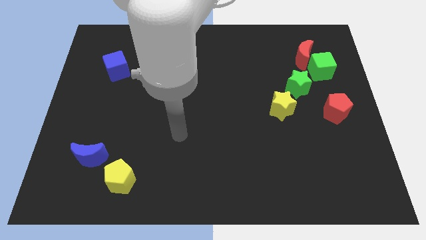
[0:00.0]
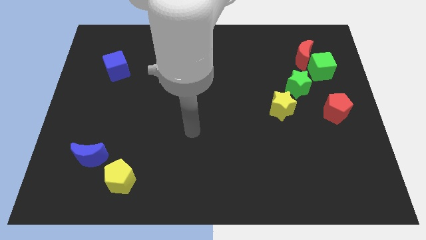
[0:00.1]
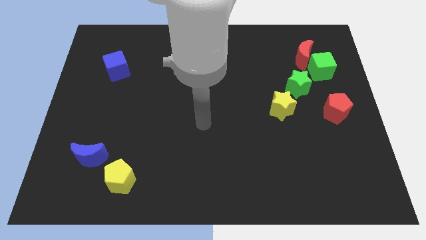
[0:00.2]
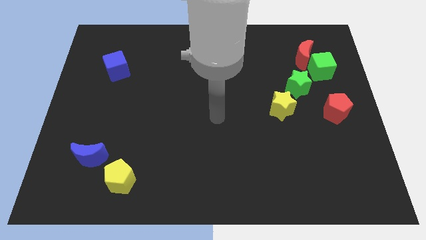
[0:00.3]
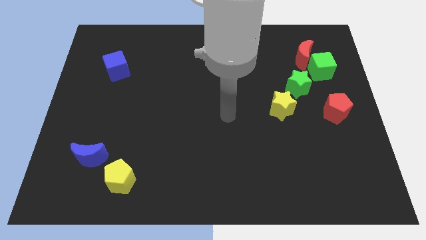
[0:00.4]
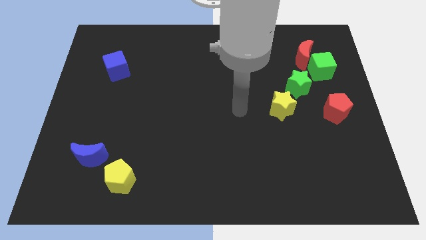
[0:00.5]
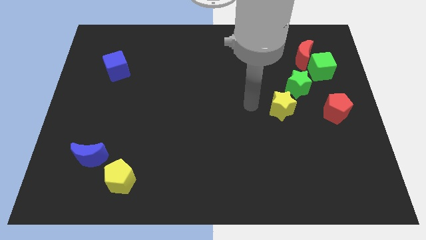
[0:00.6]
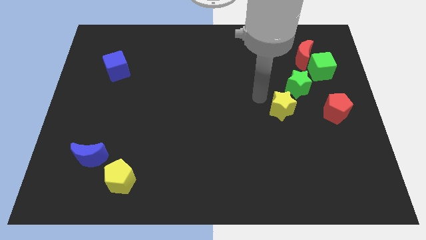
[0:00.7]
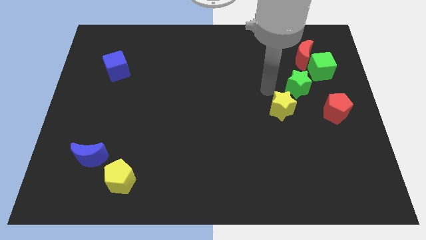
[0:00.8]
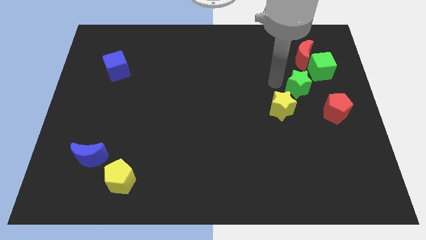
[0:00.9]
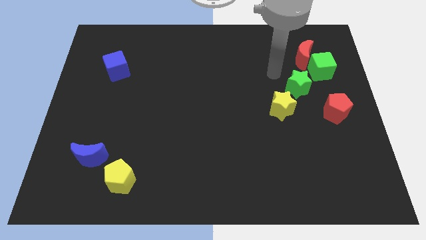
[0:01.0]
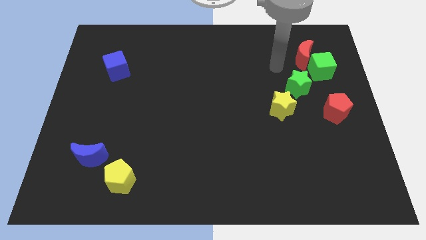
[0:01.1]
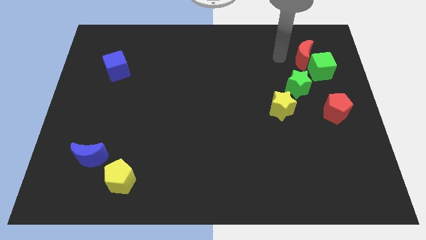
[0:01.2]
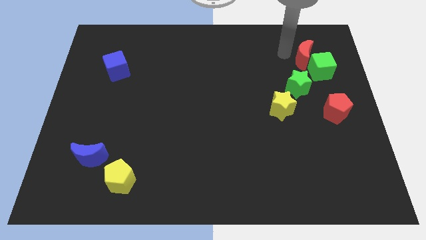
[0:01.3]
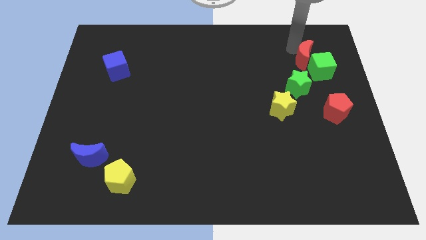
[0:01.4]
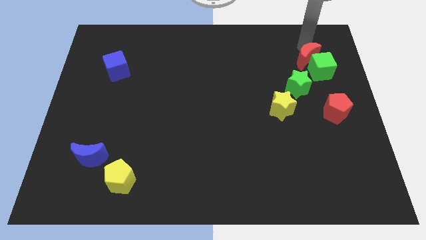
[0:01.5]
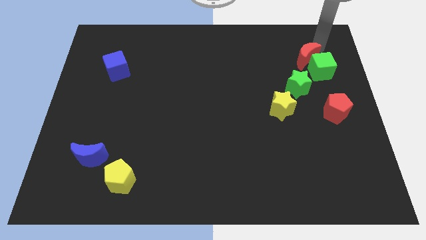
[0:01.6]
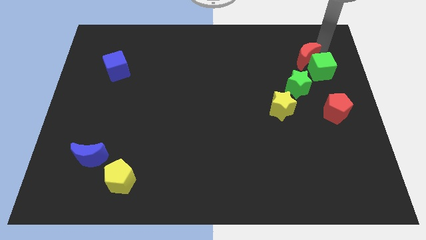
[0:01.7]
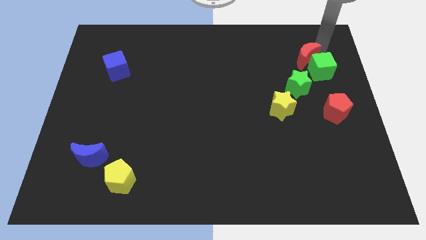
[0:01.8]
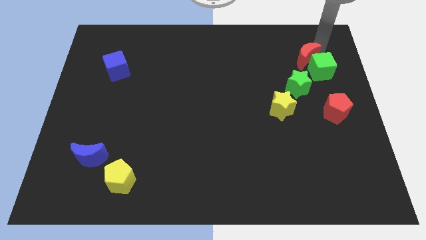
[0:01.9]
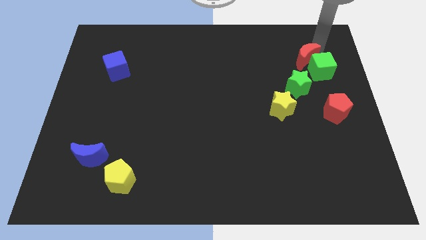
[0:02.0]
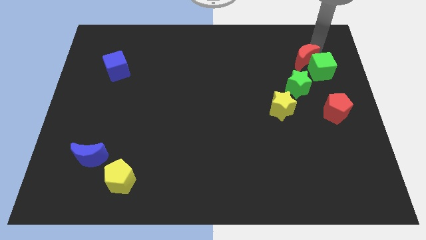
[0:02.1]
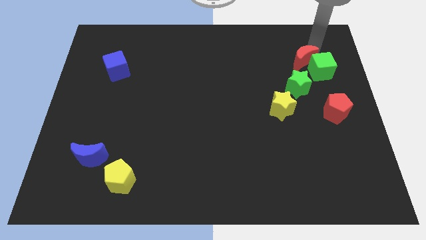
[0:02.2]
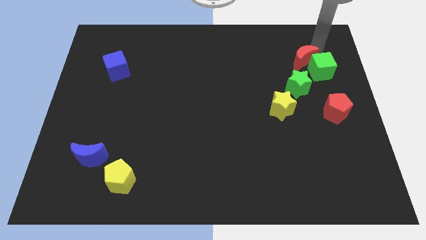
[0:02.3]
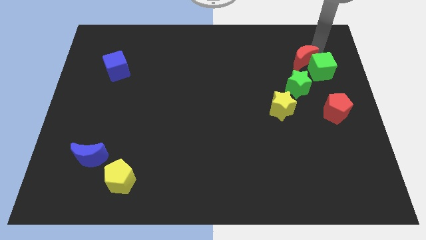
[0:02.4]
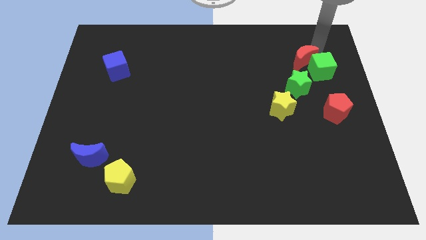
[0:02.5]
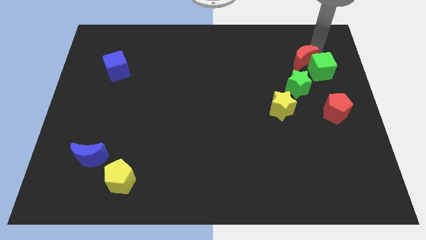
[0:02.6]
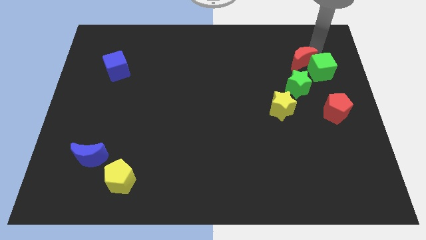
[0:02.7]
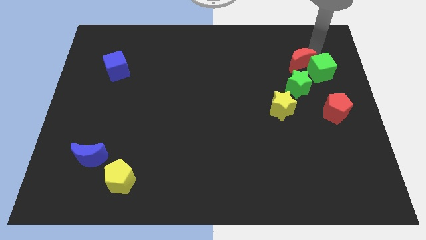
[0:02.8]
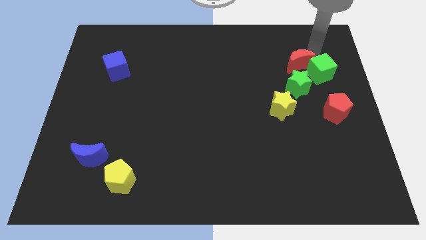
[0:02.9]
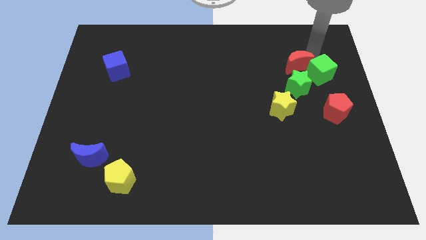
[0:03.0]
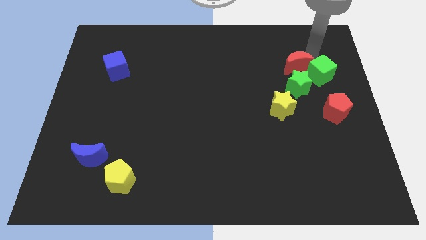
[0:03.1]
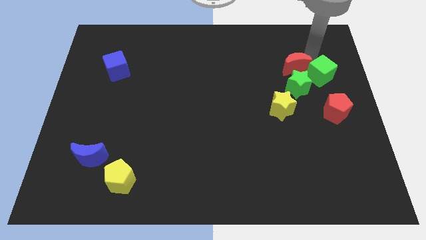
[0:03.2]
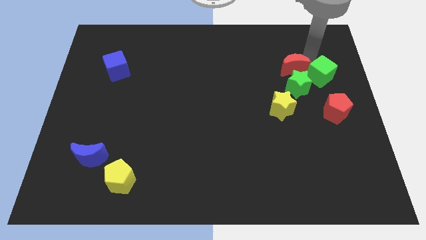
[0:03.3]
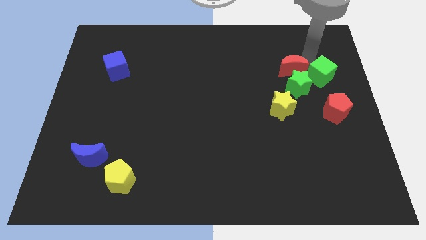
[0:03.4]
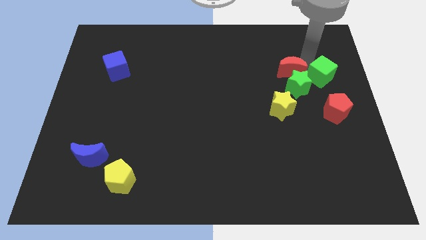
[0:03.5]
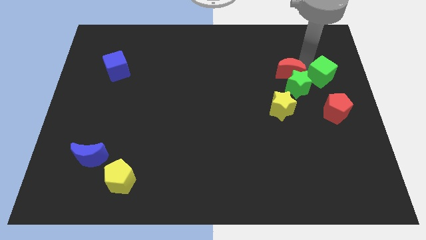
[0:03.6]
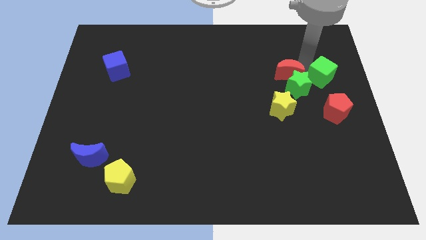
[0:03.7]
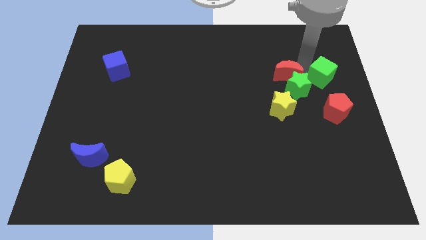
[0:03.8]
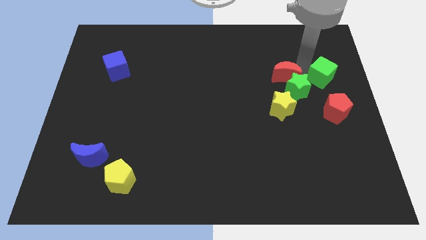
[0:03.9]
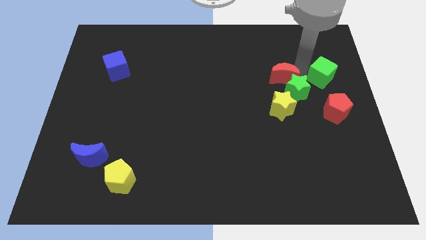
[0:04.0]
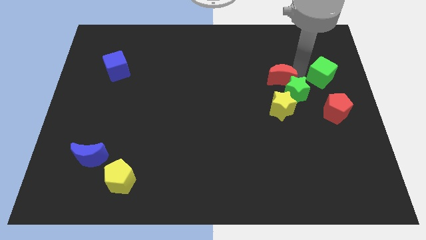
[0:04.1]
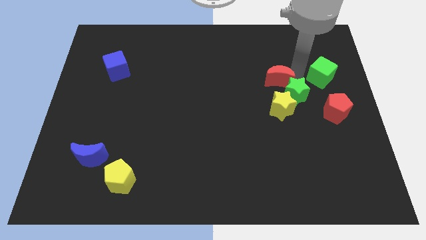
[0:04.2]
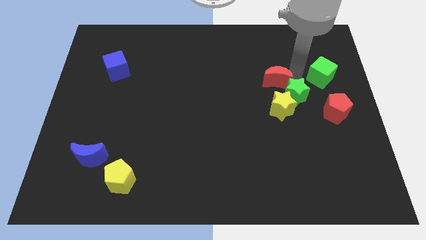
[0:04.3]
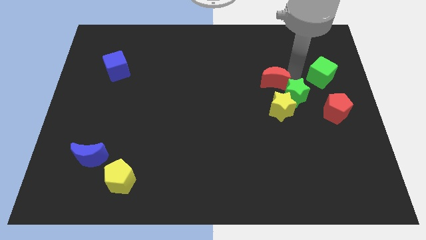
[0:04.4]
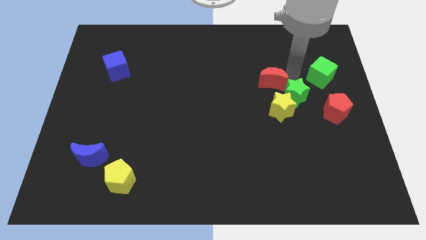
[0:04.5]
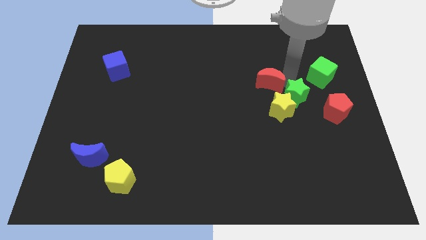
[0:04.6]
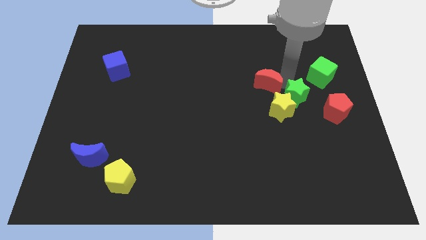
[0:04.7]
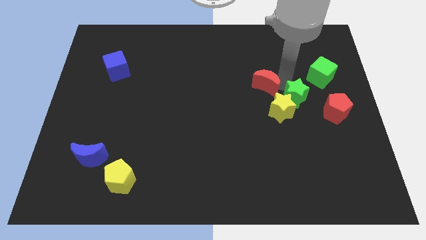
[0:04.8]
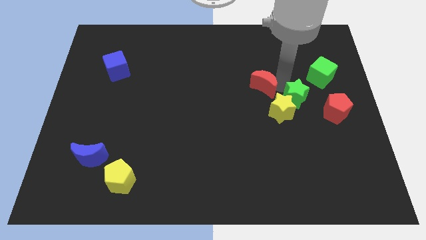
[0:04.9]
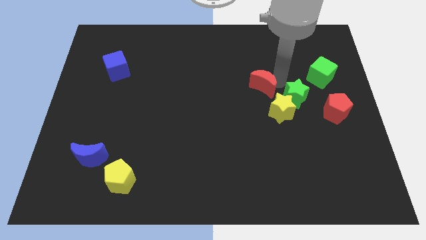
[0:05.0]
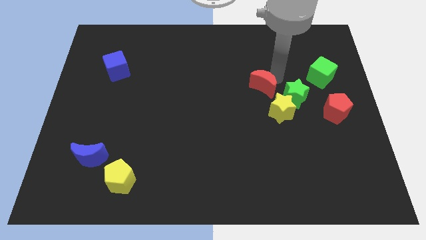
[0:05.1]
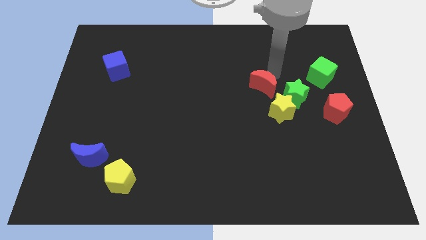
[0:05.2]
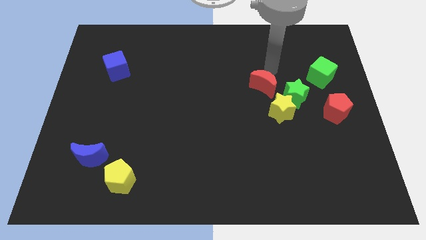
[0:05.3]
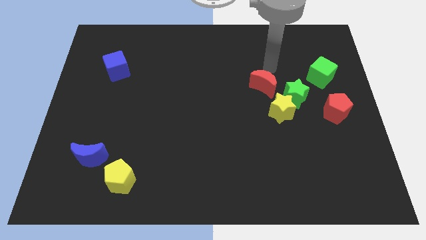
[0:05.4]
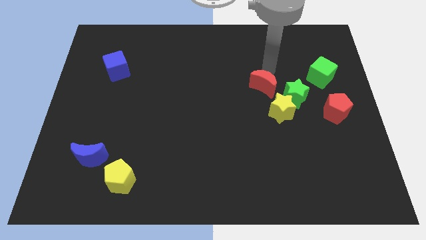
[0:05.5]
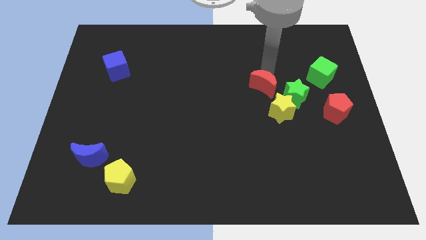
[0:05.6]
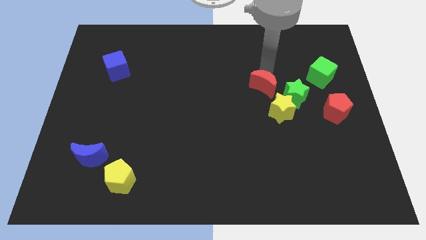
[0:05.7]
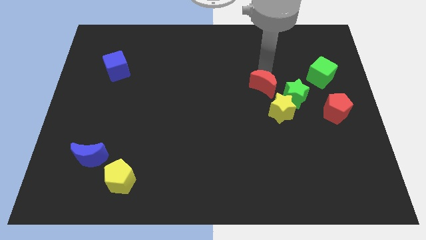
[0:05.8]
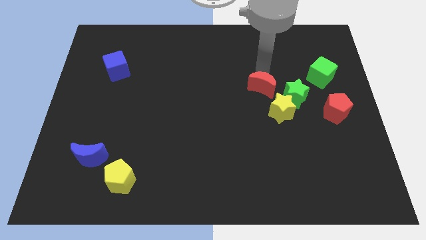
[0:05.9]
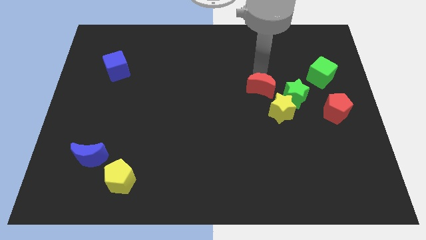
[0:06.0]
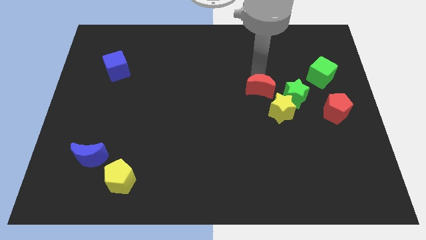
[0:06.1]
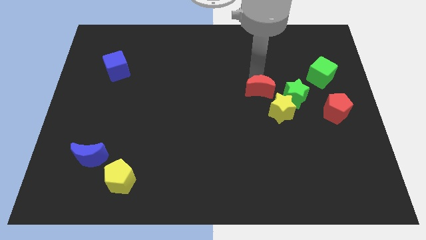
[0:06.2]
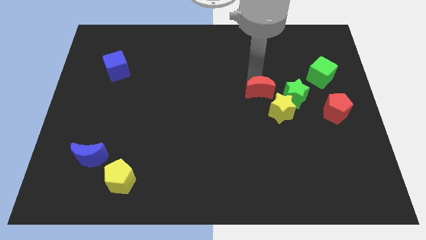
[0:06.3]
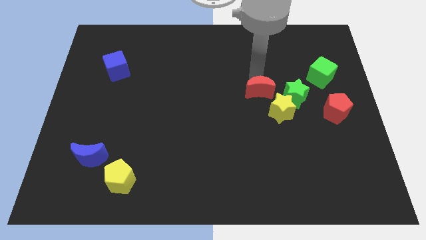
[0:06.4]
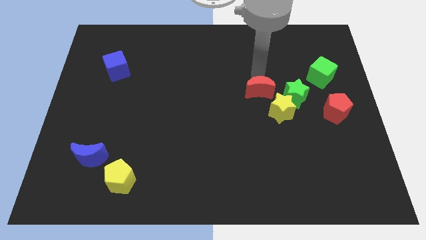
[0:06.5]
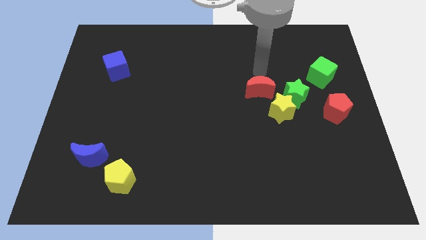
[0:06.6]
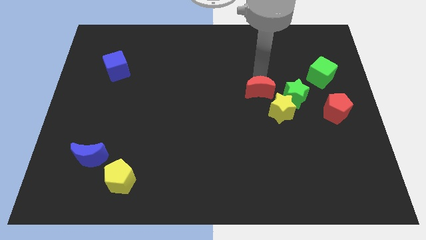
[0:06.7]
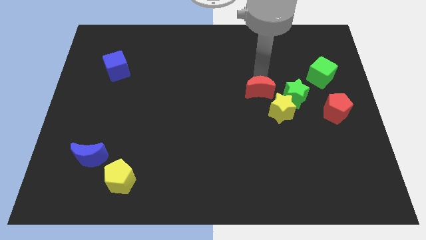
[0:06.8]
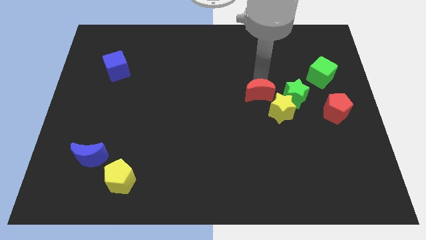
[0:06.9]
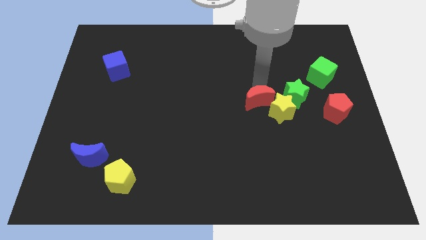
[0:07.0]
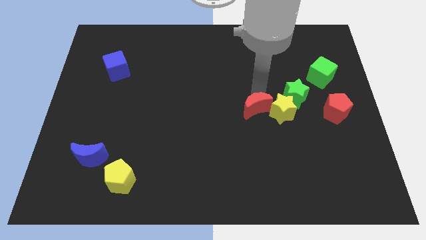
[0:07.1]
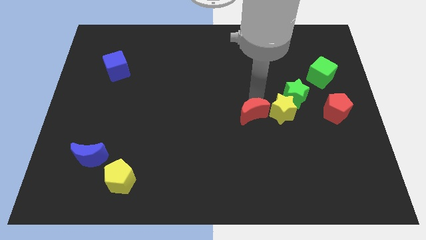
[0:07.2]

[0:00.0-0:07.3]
push the red moon to the bottom left side of the yellow star
